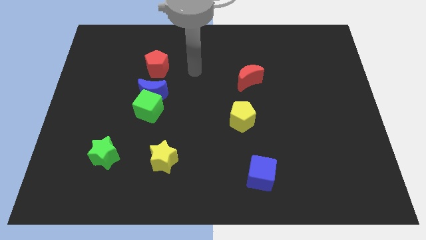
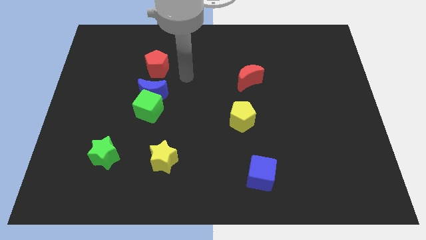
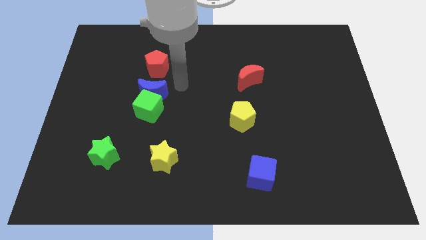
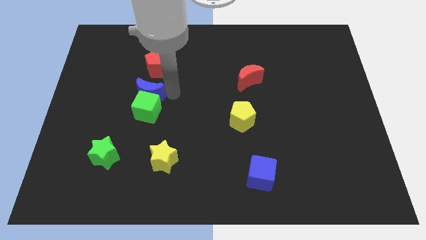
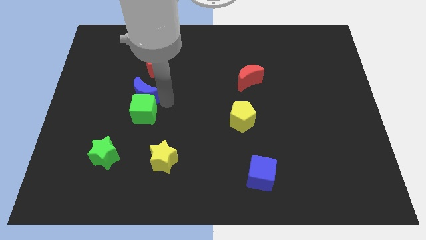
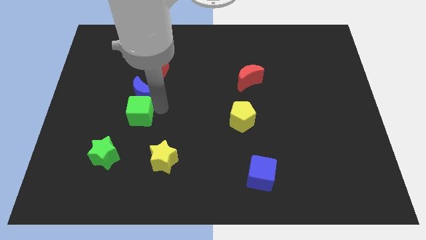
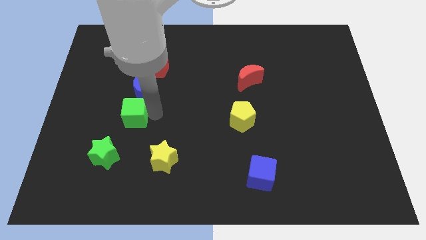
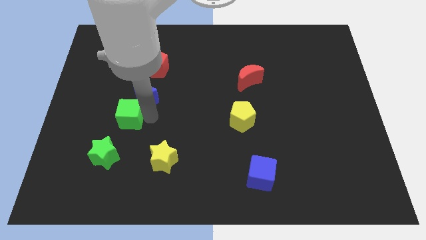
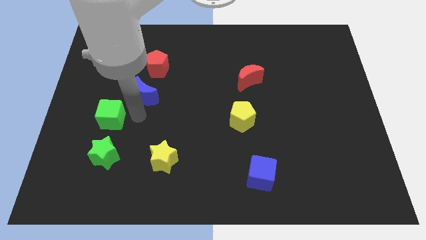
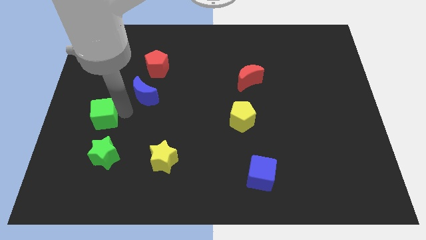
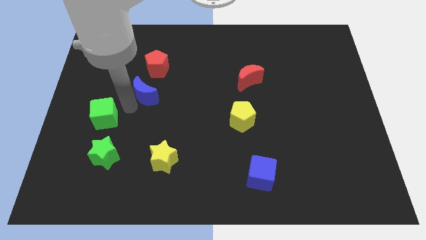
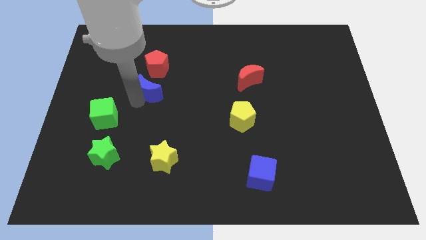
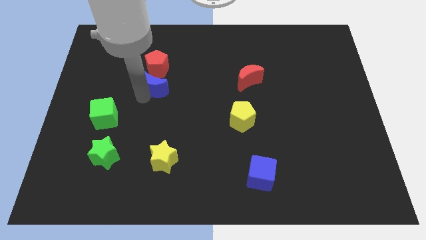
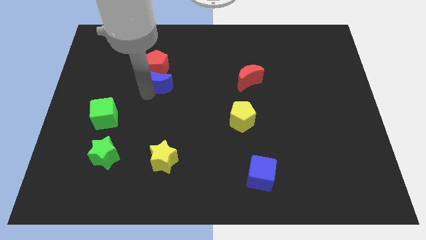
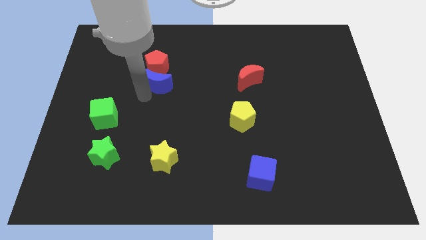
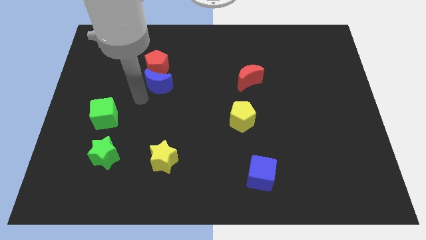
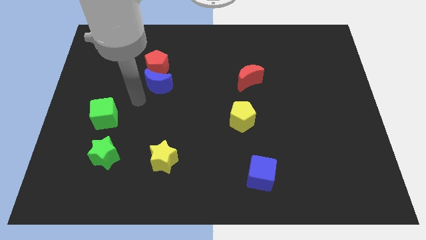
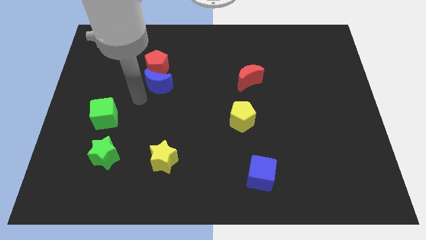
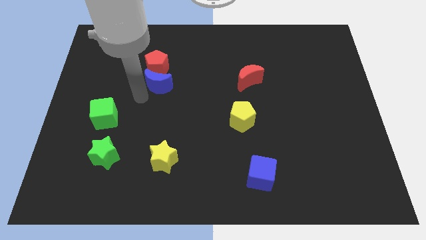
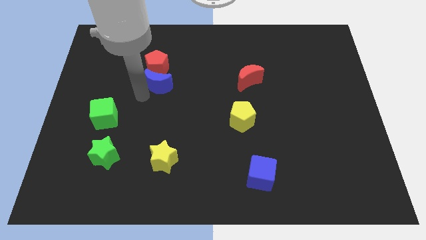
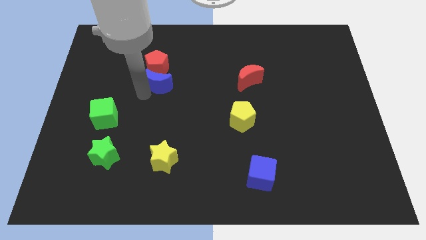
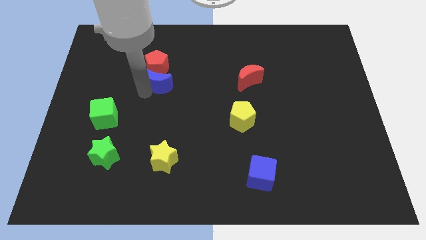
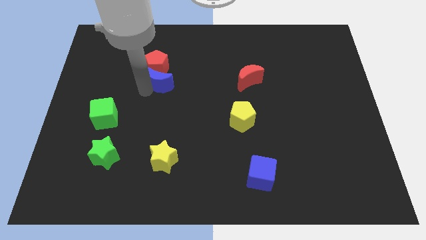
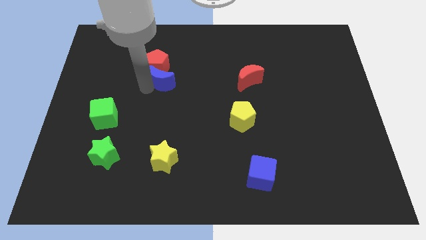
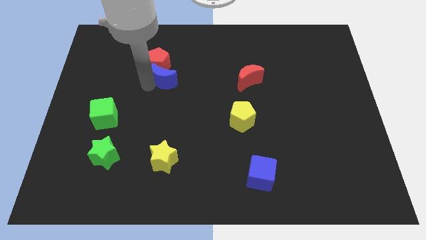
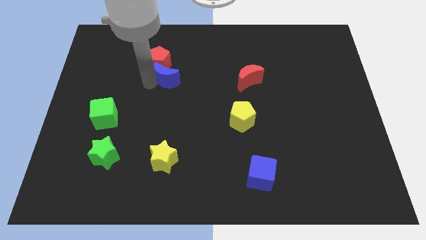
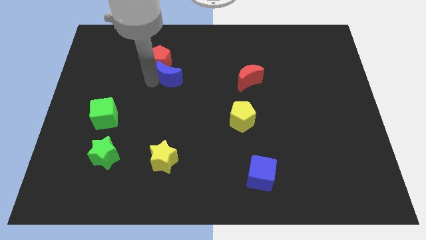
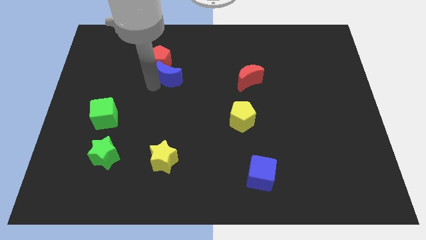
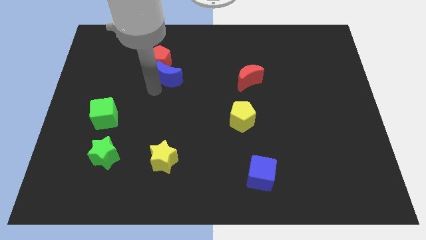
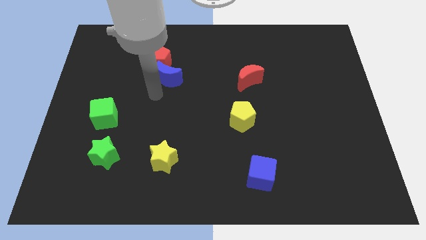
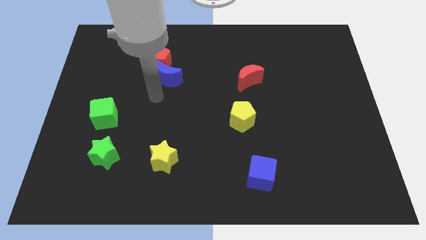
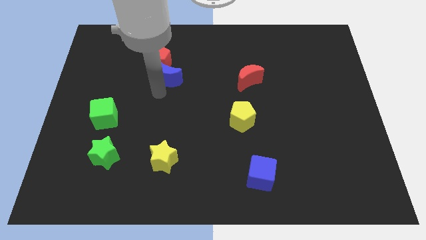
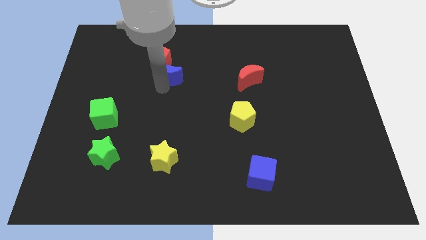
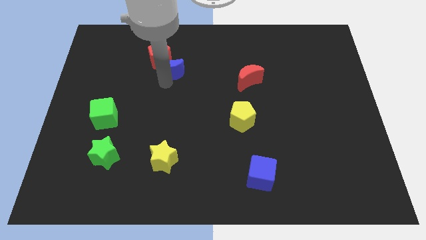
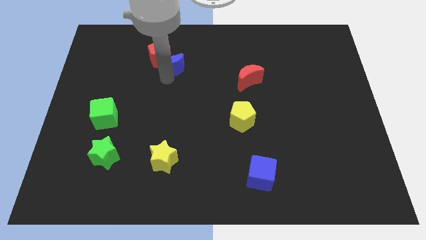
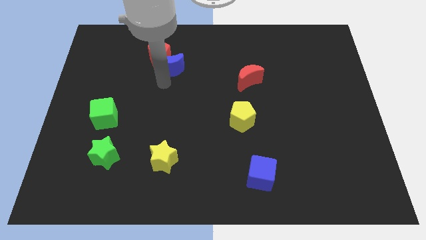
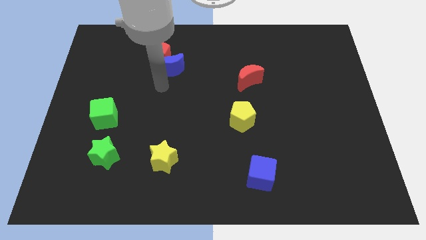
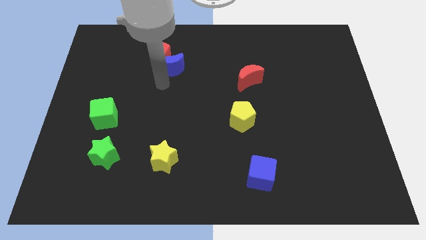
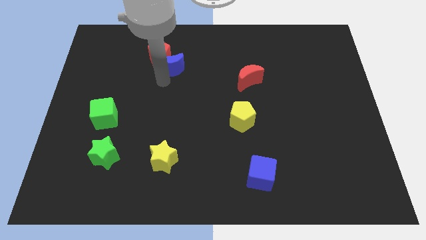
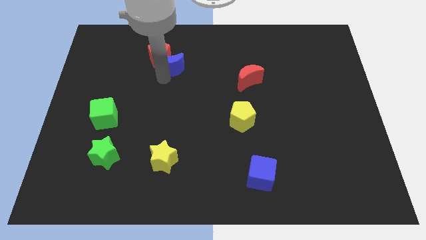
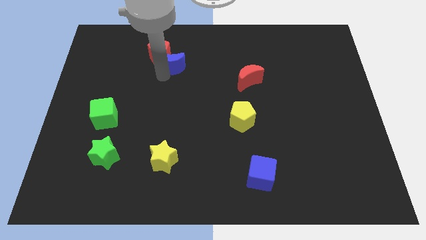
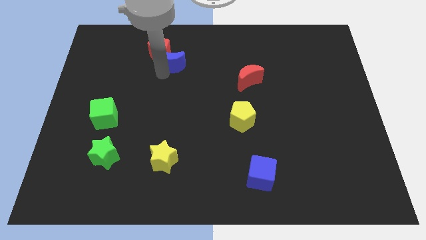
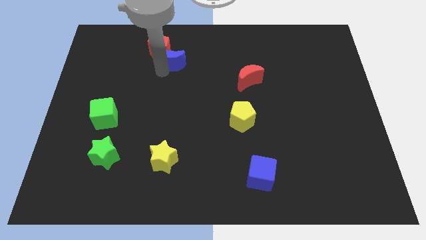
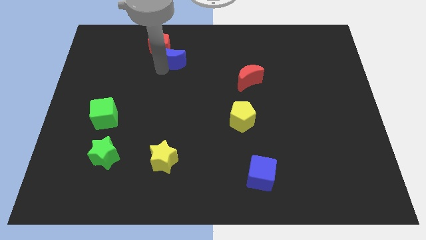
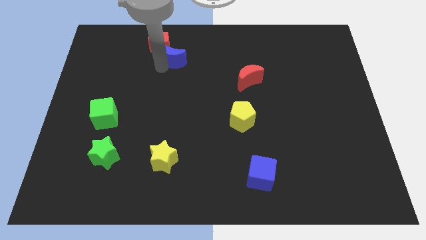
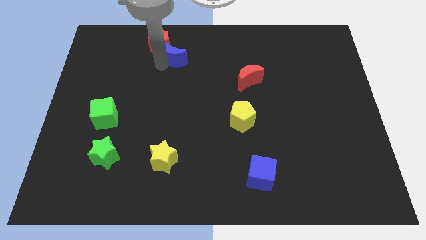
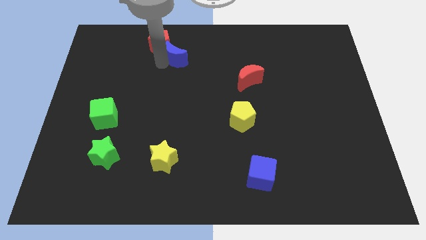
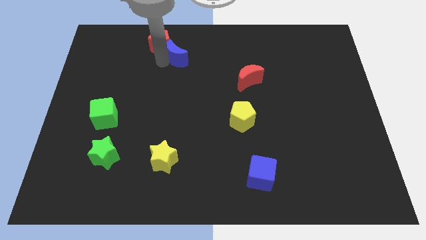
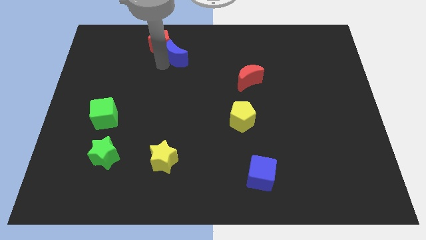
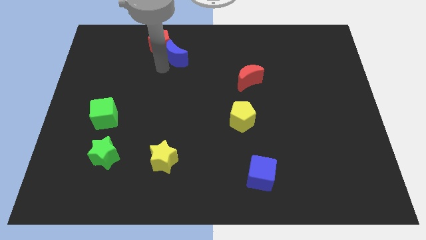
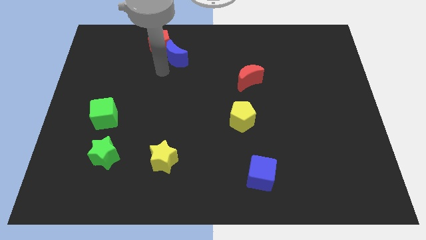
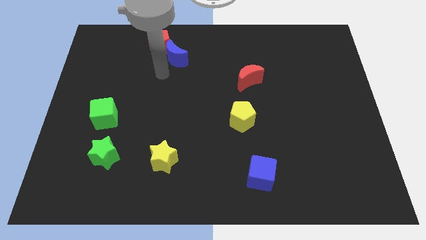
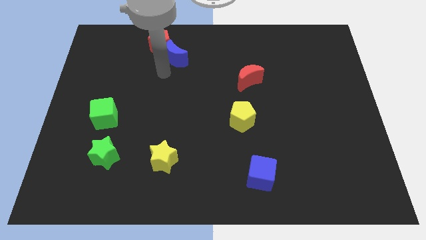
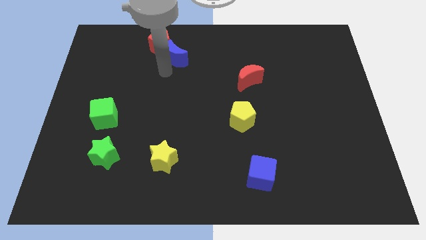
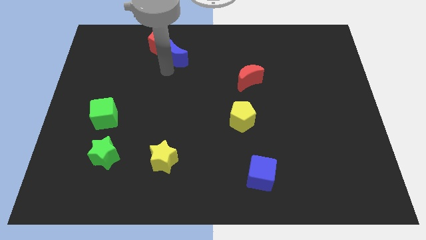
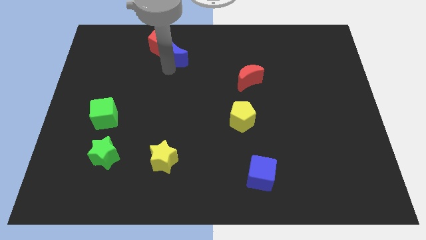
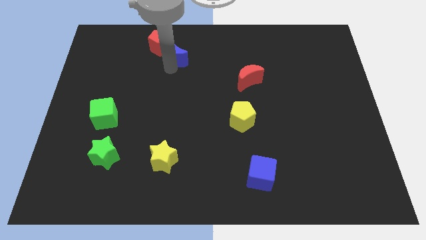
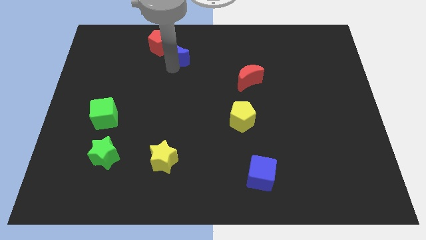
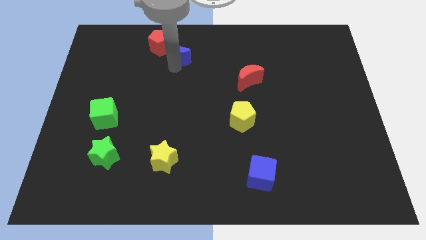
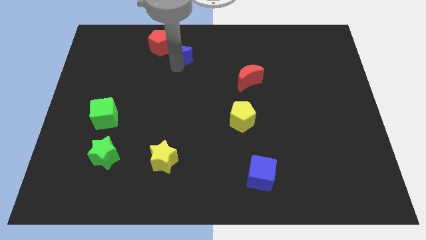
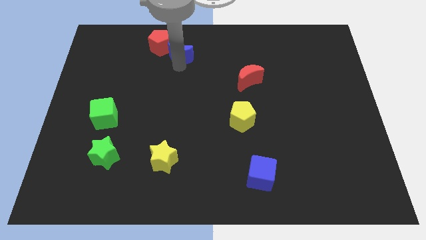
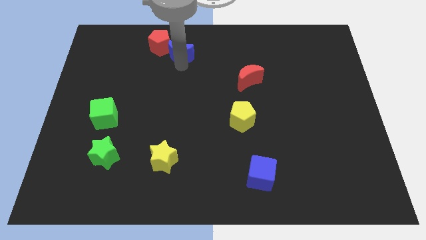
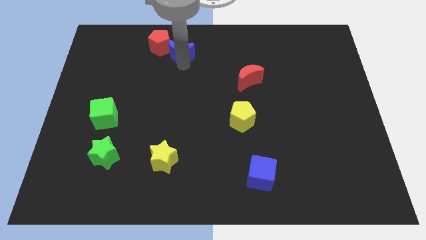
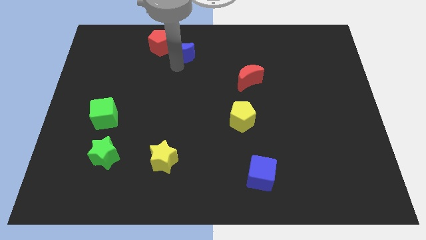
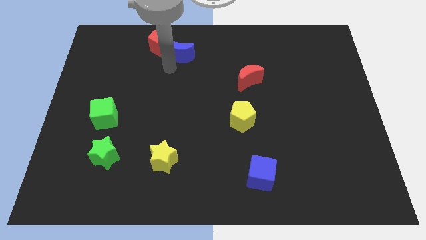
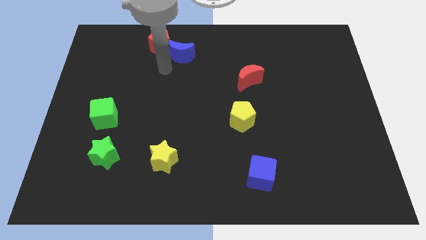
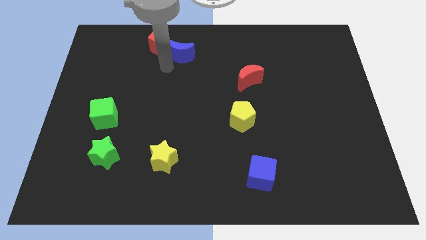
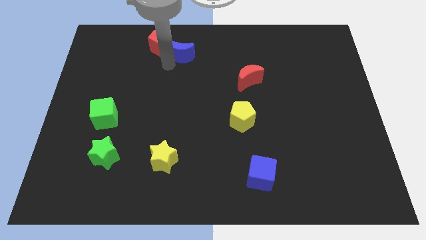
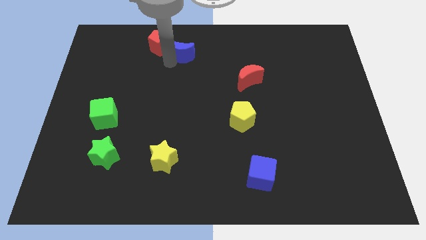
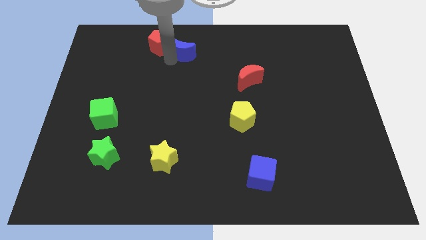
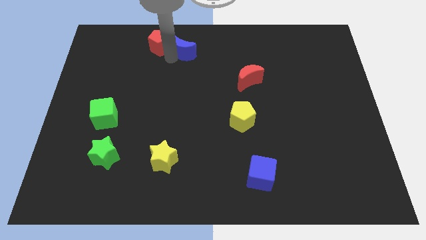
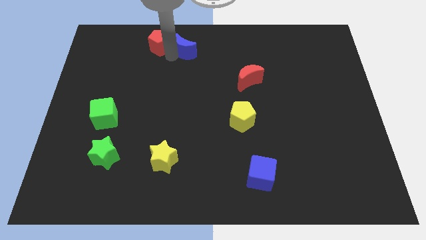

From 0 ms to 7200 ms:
slide the blue moon to the top side
